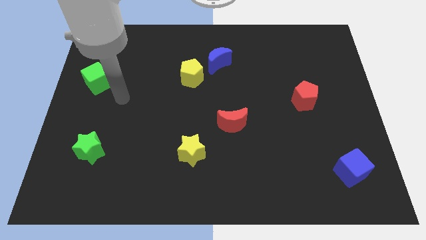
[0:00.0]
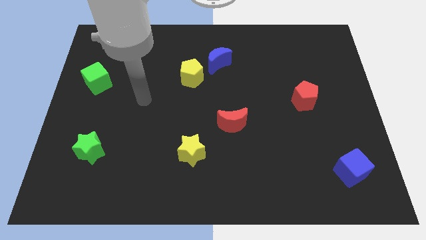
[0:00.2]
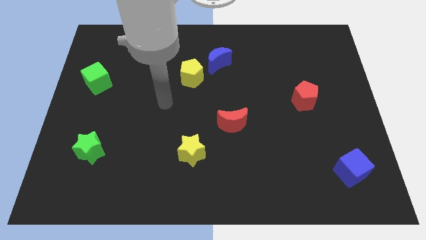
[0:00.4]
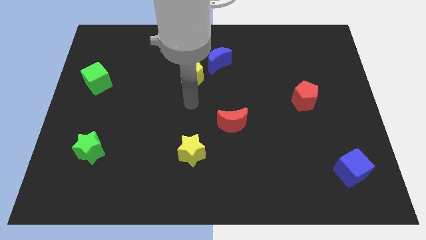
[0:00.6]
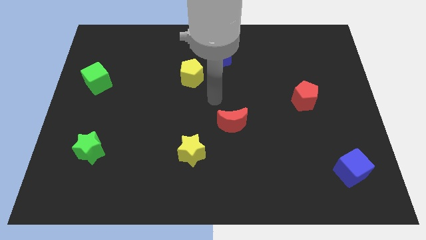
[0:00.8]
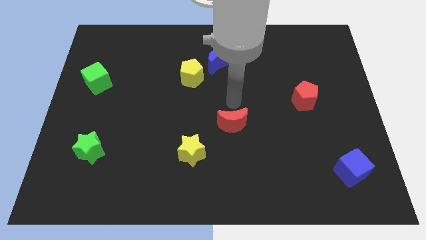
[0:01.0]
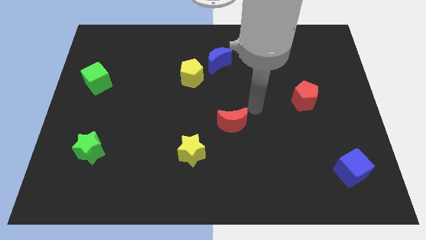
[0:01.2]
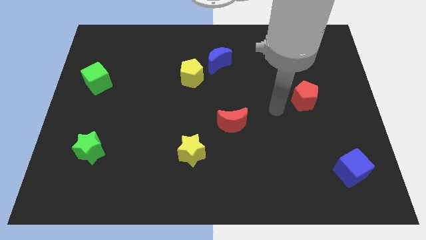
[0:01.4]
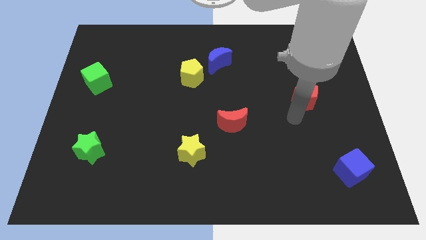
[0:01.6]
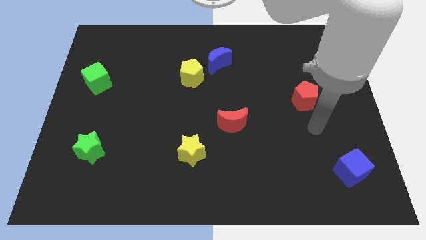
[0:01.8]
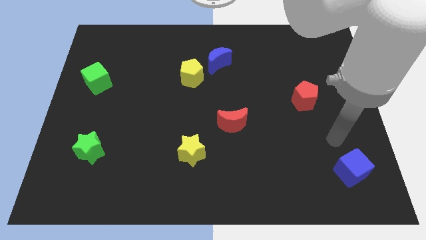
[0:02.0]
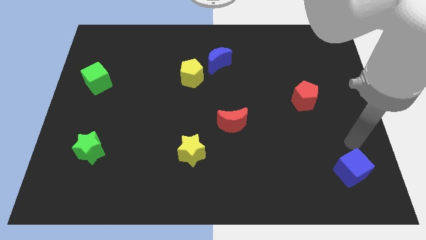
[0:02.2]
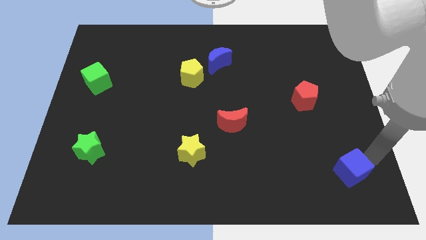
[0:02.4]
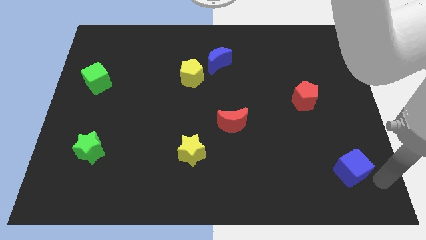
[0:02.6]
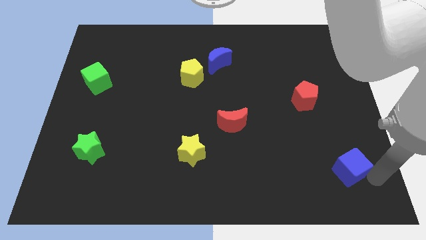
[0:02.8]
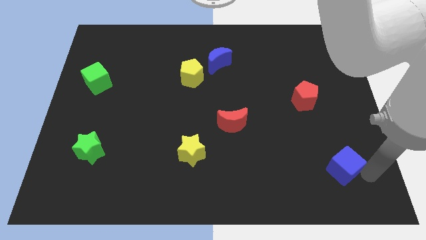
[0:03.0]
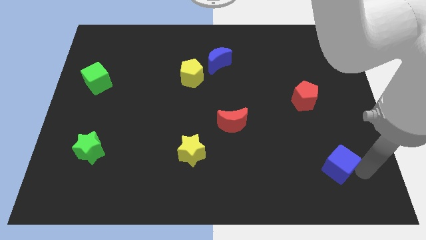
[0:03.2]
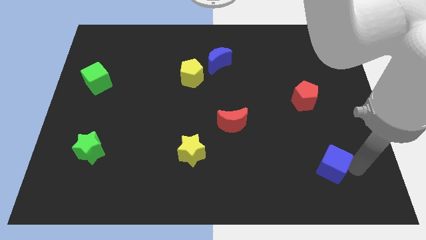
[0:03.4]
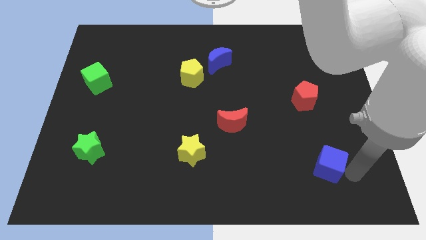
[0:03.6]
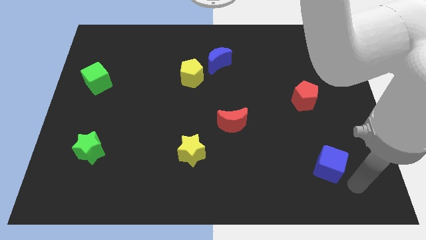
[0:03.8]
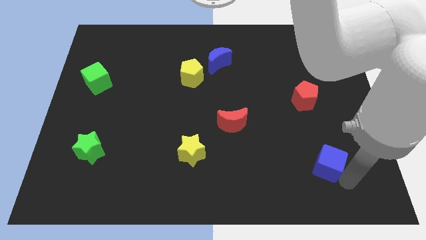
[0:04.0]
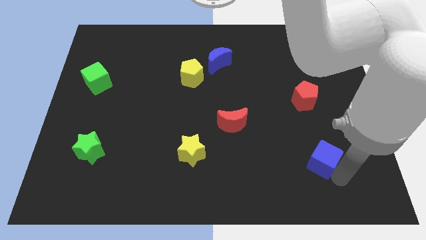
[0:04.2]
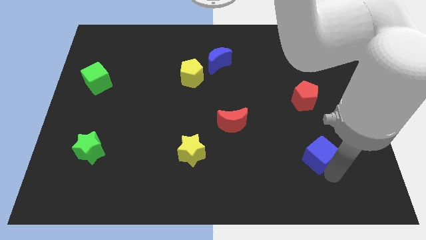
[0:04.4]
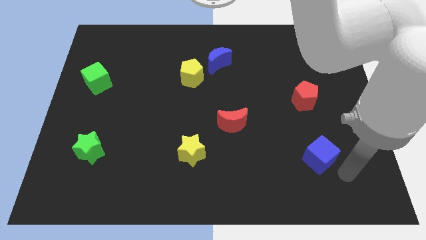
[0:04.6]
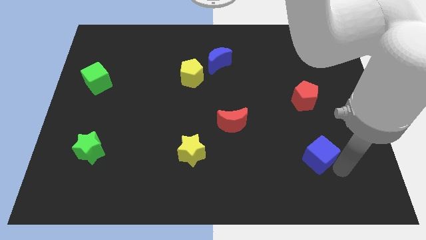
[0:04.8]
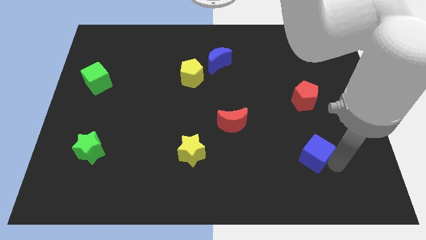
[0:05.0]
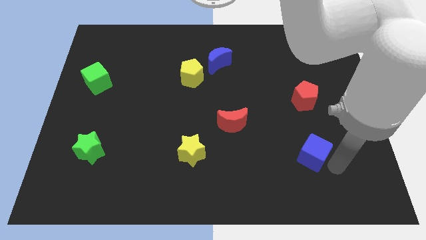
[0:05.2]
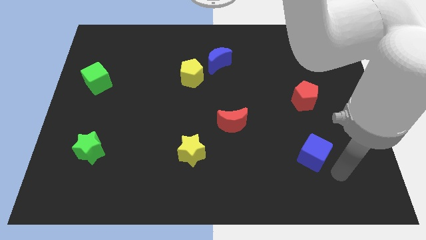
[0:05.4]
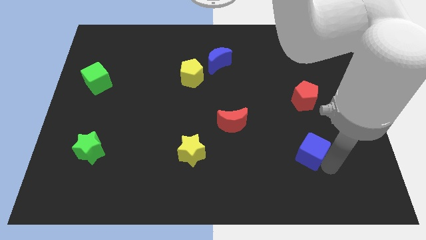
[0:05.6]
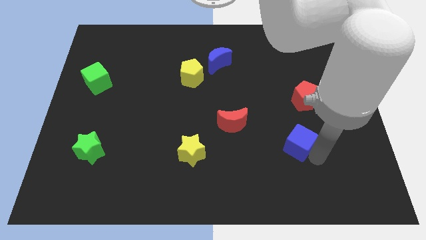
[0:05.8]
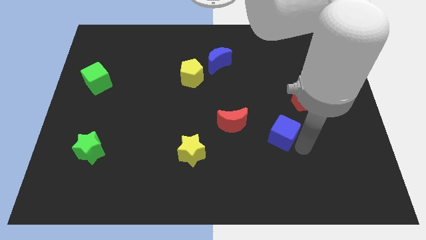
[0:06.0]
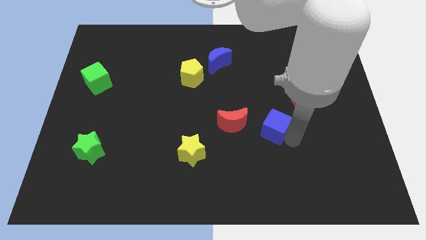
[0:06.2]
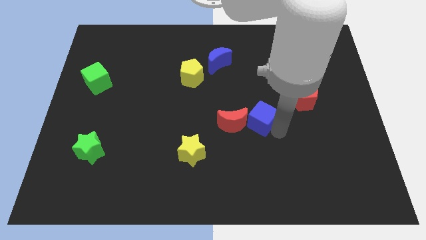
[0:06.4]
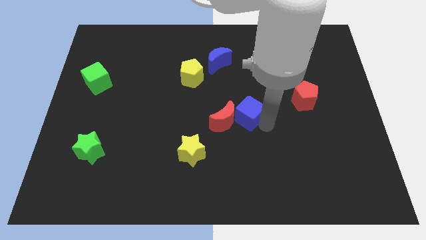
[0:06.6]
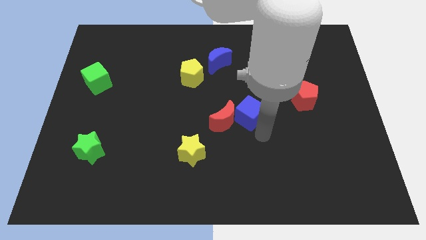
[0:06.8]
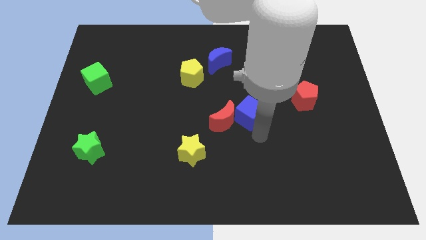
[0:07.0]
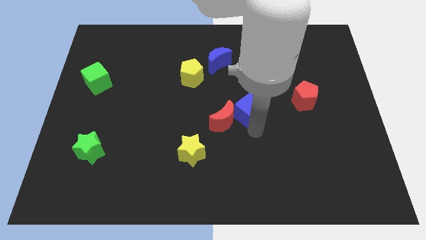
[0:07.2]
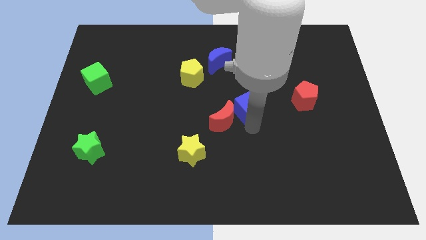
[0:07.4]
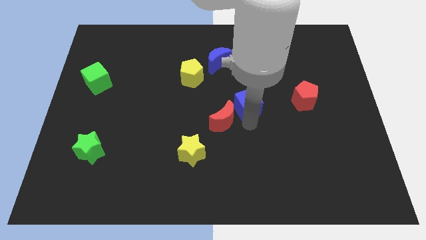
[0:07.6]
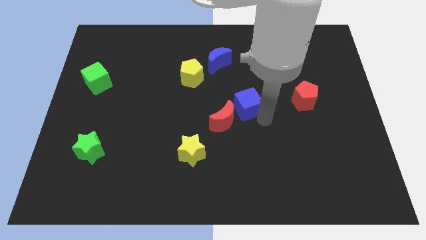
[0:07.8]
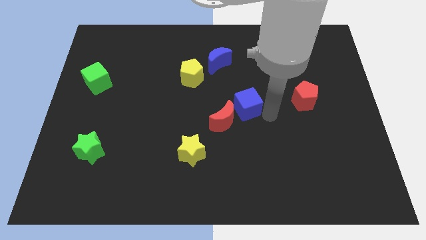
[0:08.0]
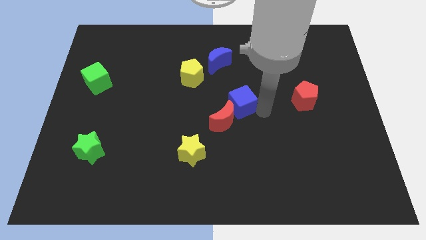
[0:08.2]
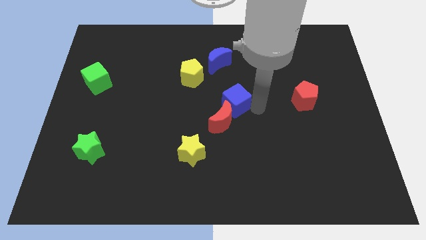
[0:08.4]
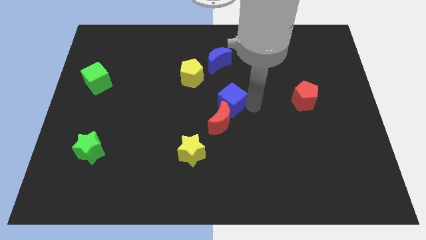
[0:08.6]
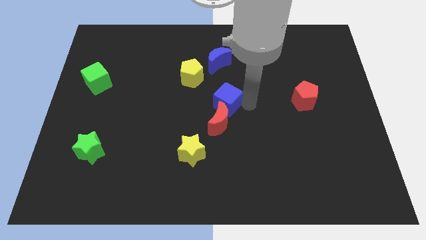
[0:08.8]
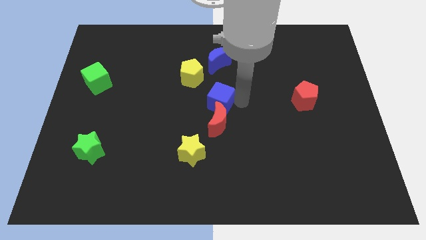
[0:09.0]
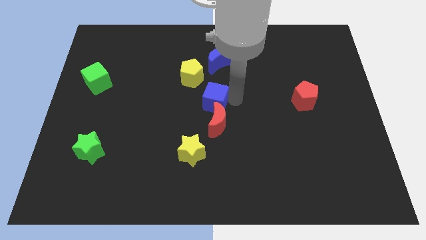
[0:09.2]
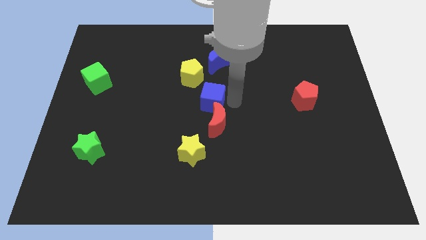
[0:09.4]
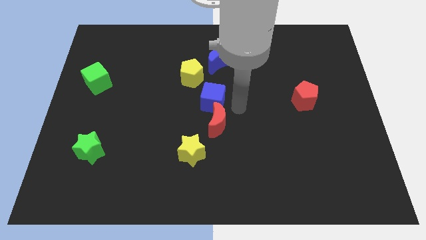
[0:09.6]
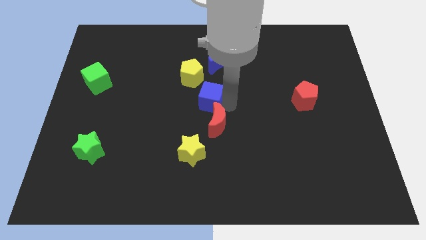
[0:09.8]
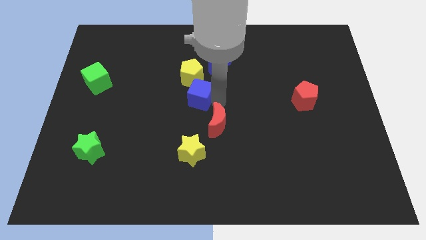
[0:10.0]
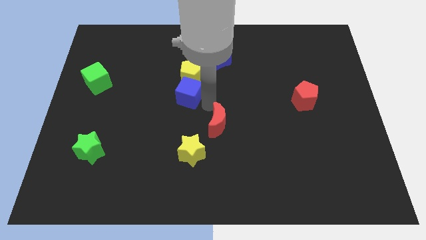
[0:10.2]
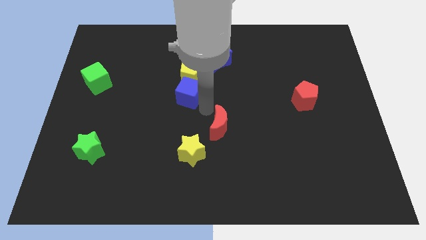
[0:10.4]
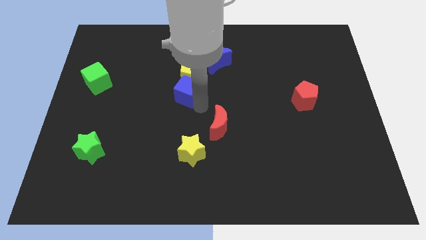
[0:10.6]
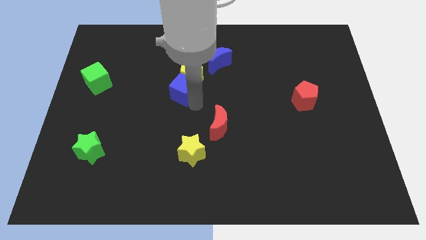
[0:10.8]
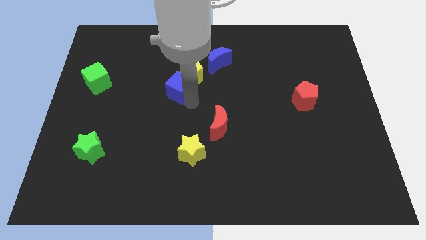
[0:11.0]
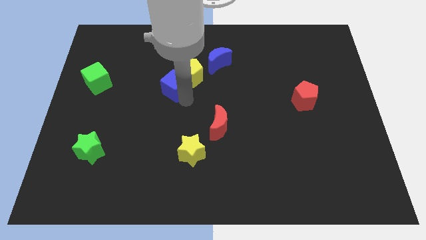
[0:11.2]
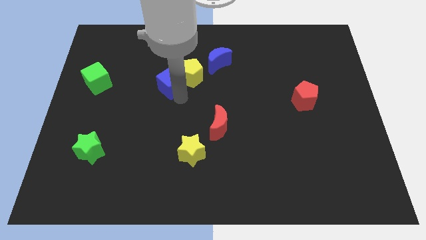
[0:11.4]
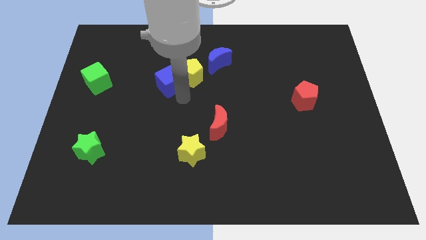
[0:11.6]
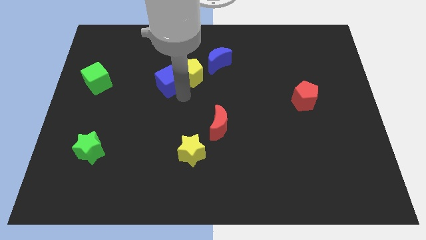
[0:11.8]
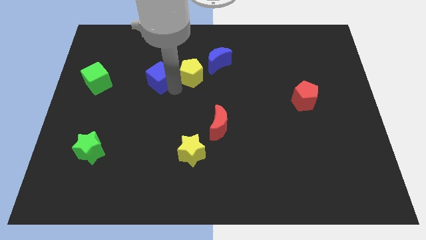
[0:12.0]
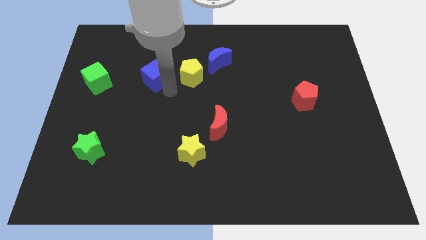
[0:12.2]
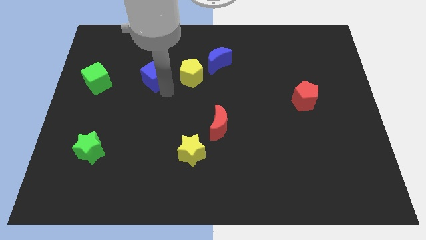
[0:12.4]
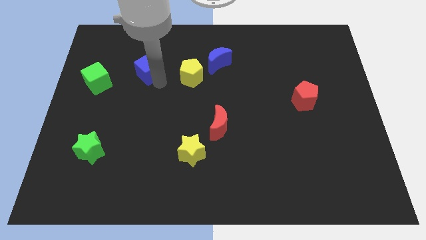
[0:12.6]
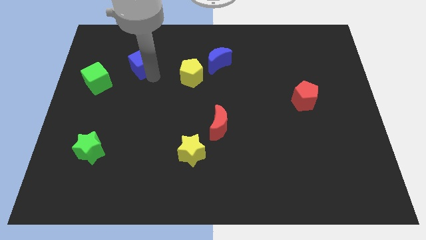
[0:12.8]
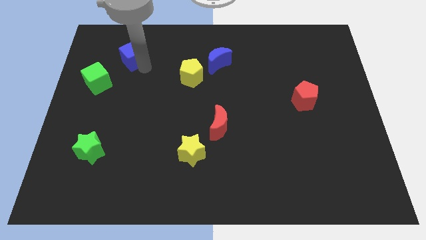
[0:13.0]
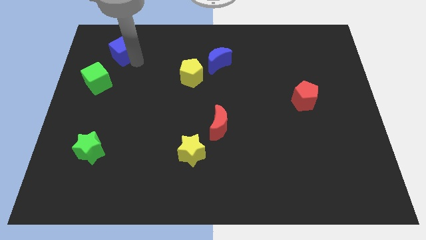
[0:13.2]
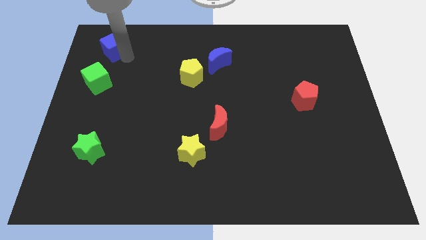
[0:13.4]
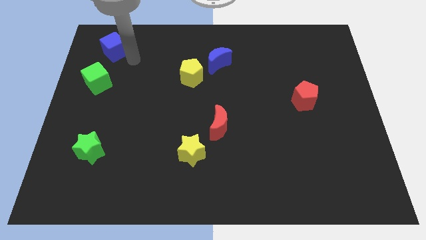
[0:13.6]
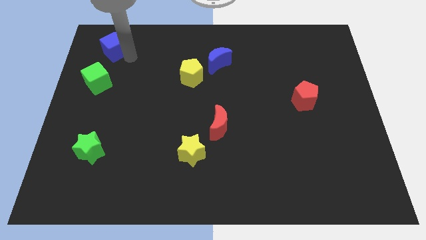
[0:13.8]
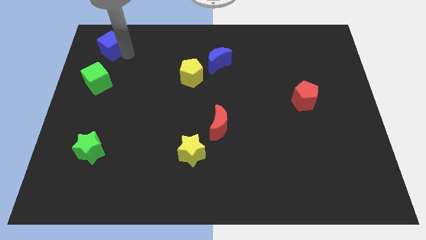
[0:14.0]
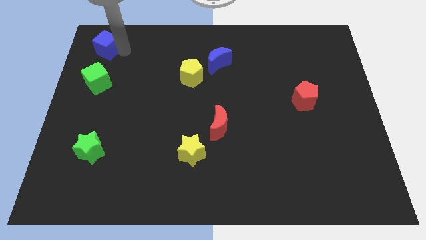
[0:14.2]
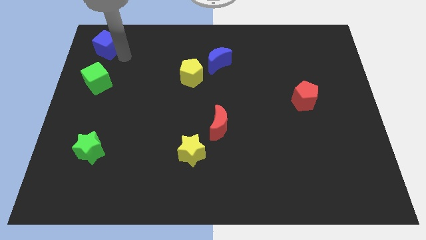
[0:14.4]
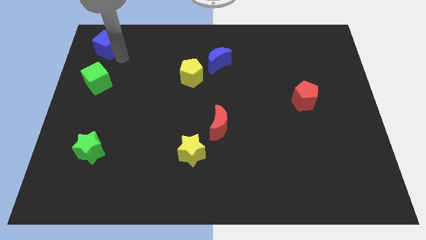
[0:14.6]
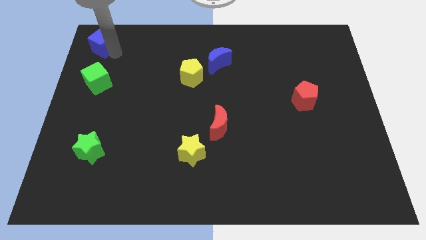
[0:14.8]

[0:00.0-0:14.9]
slide the blue cube to the upper left corner
